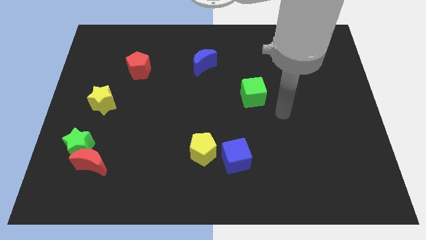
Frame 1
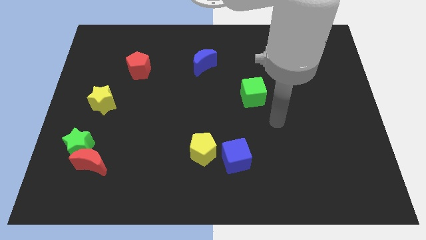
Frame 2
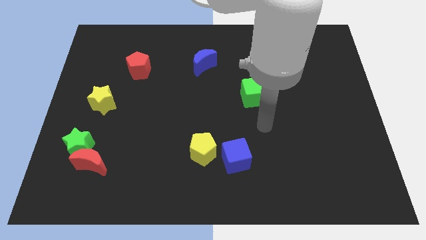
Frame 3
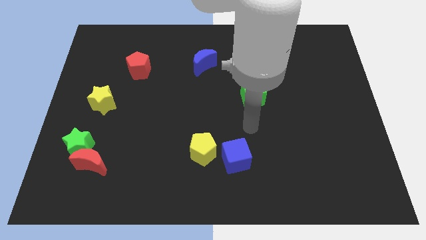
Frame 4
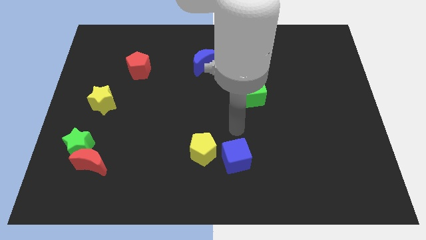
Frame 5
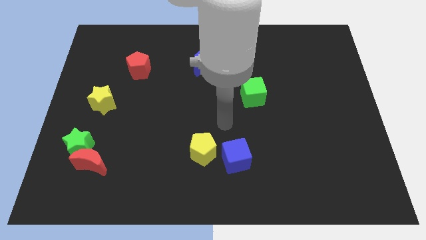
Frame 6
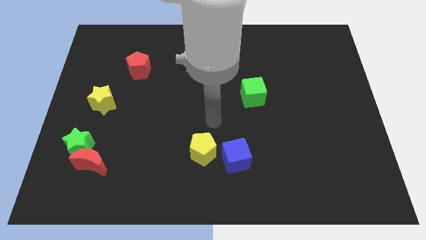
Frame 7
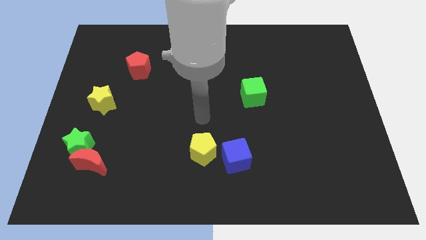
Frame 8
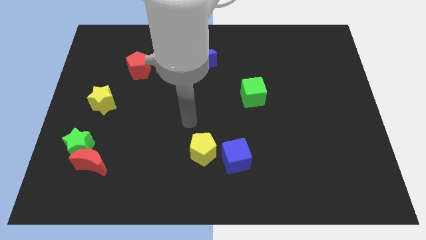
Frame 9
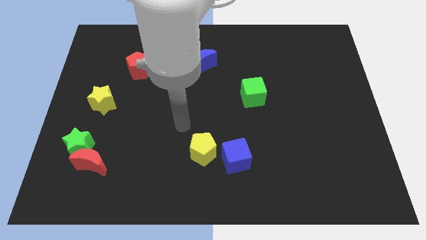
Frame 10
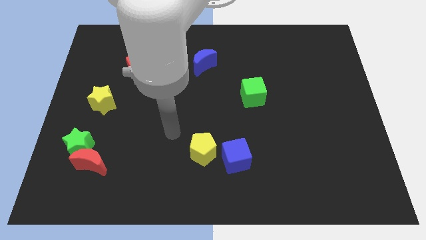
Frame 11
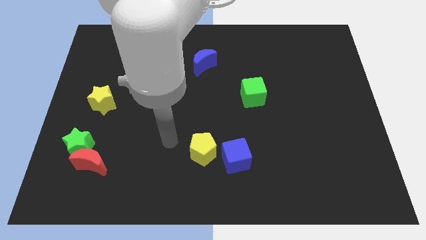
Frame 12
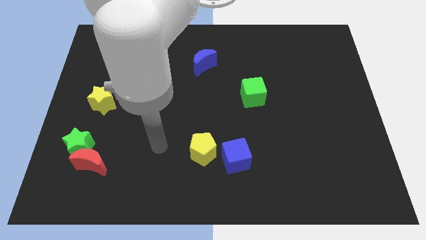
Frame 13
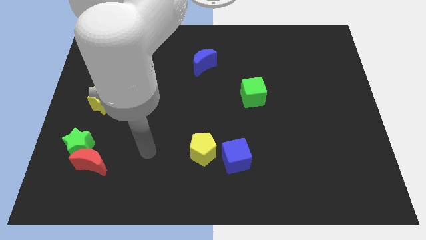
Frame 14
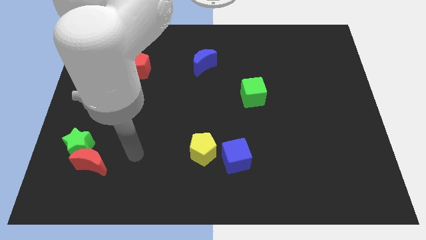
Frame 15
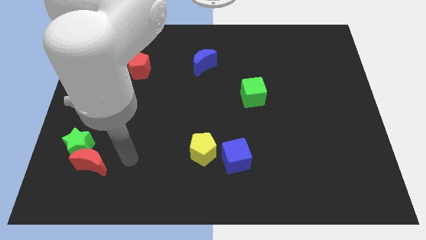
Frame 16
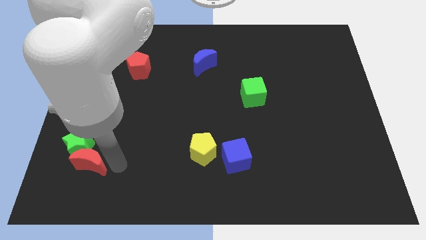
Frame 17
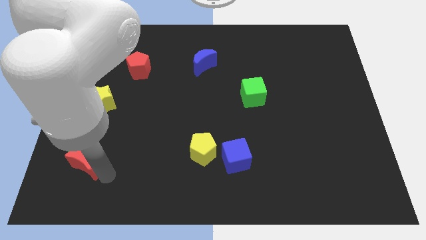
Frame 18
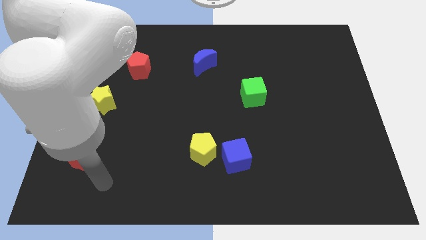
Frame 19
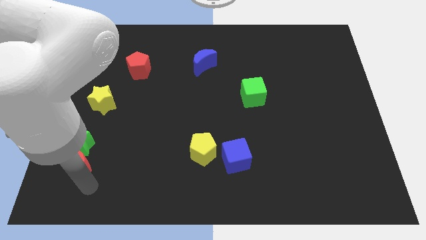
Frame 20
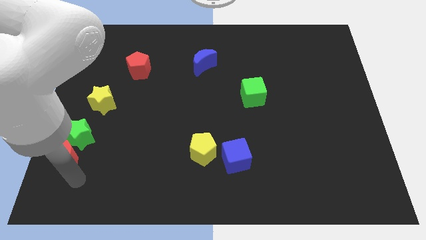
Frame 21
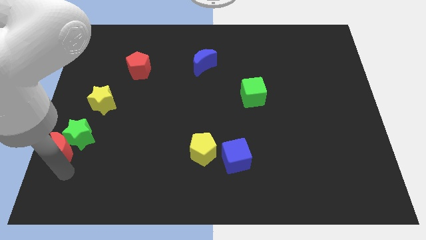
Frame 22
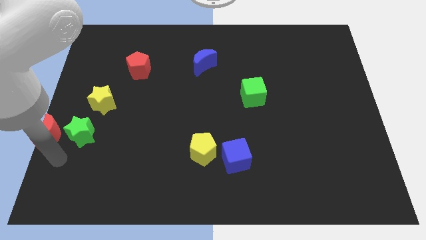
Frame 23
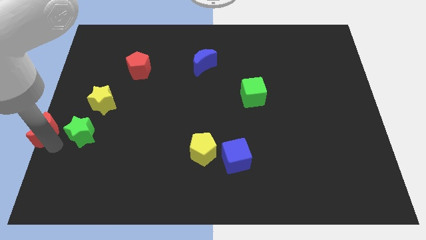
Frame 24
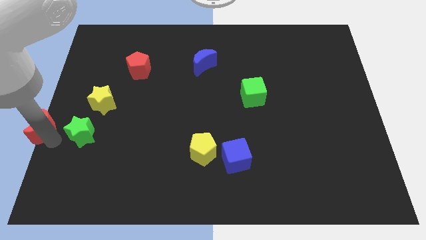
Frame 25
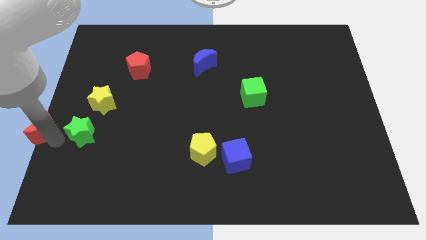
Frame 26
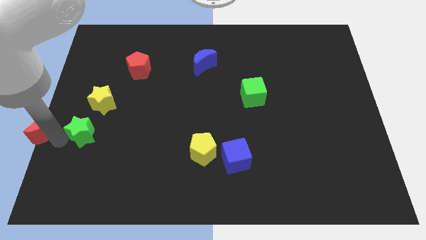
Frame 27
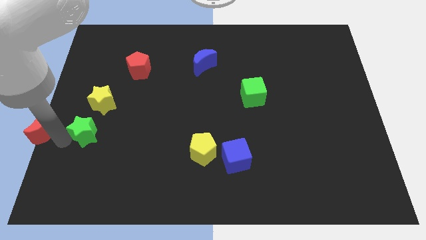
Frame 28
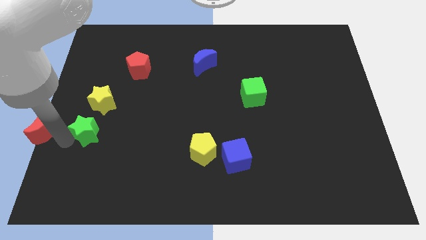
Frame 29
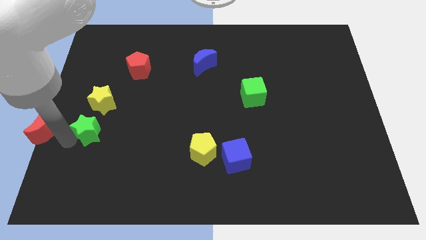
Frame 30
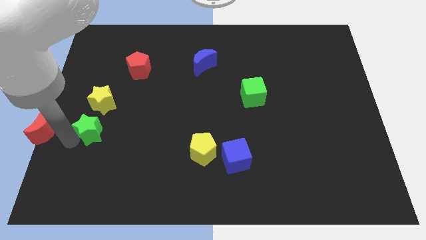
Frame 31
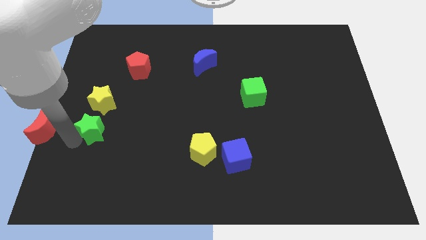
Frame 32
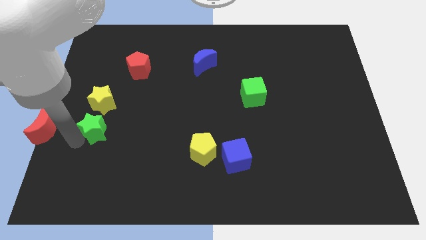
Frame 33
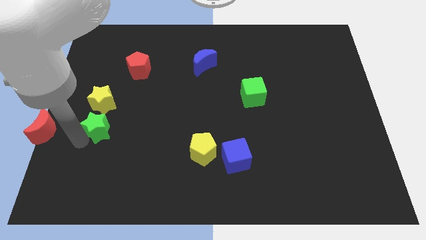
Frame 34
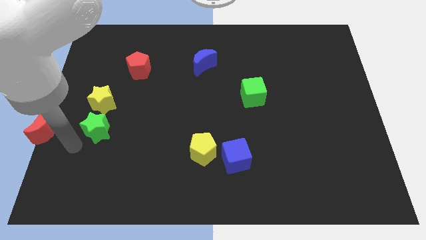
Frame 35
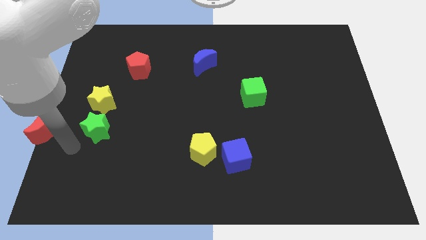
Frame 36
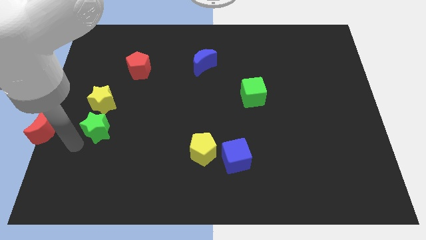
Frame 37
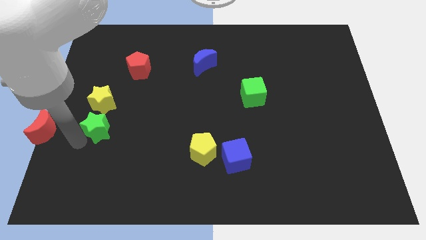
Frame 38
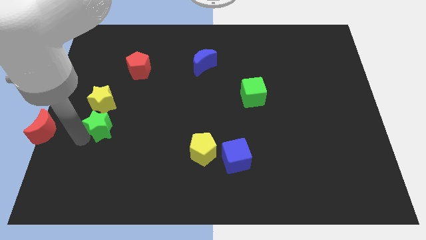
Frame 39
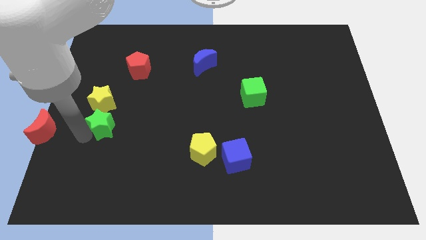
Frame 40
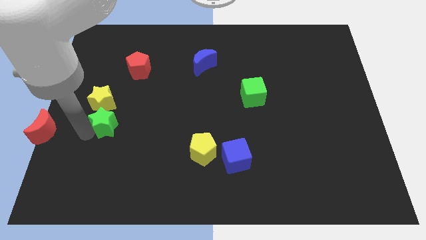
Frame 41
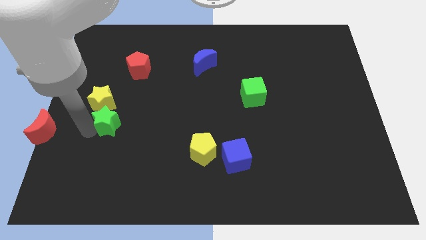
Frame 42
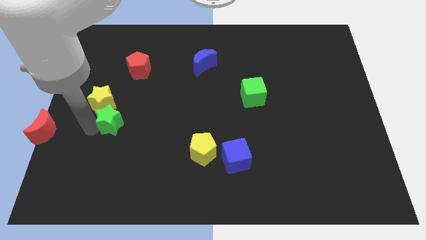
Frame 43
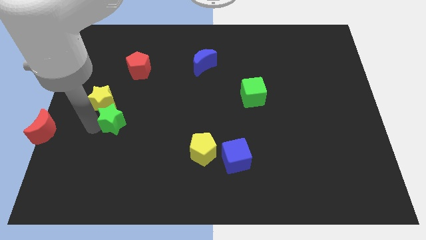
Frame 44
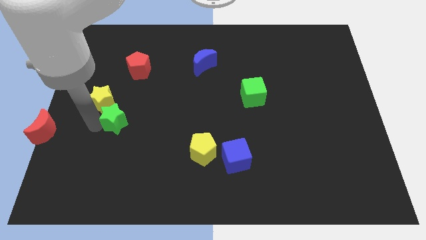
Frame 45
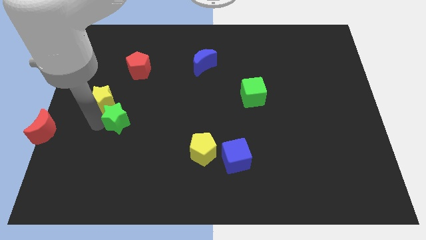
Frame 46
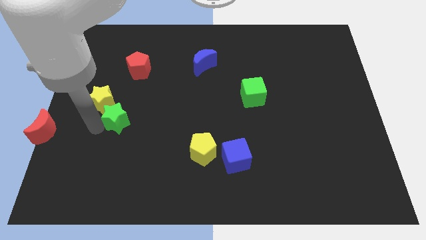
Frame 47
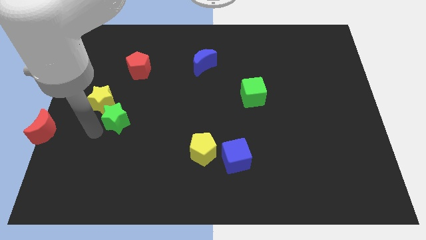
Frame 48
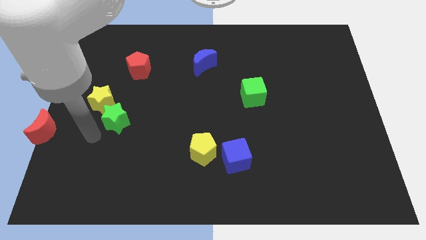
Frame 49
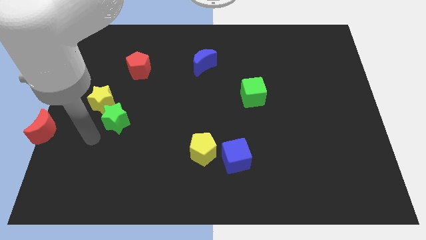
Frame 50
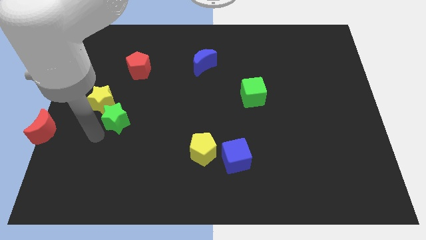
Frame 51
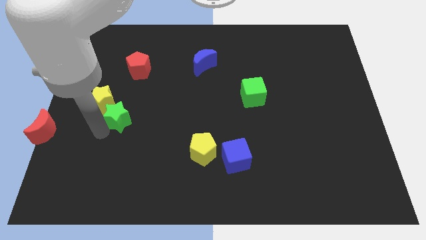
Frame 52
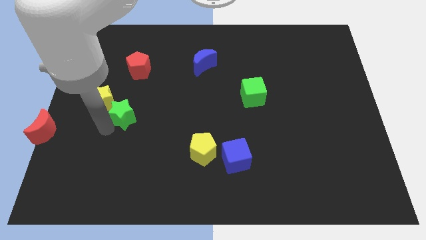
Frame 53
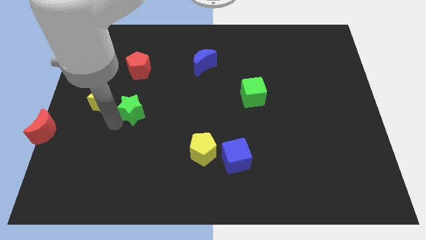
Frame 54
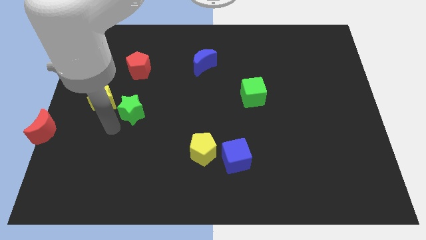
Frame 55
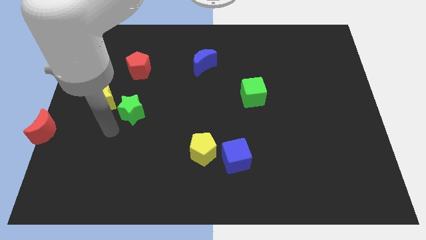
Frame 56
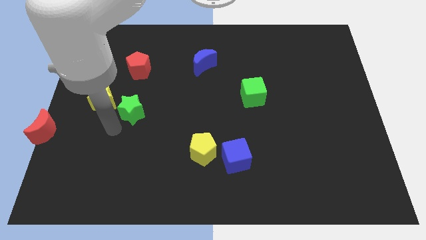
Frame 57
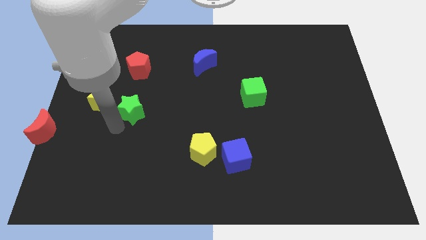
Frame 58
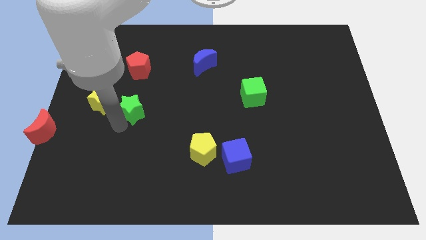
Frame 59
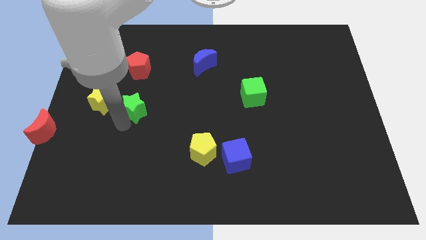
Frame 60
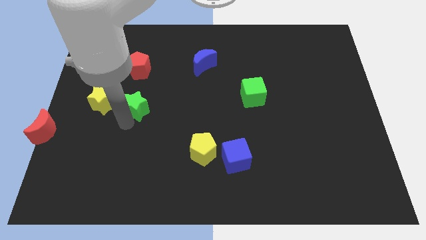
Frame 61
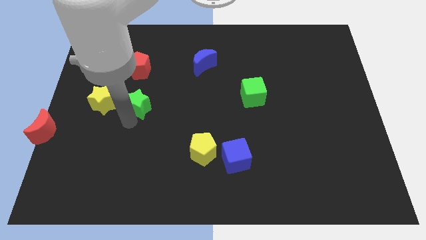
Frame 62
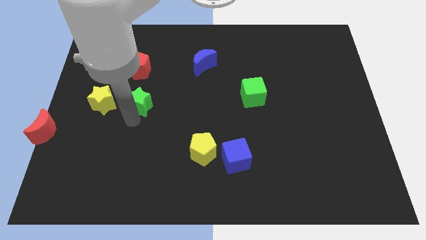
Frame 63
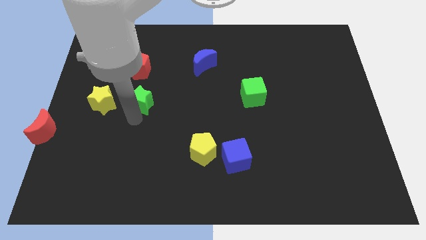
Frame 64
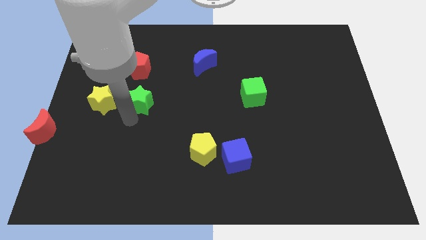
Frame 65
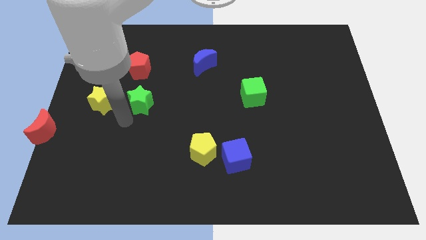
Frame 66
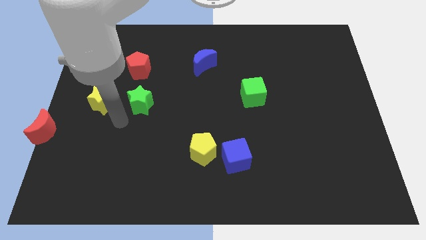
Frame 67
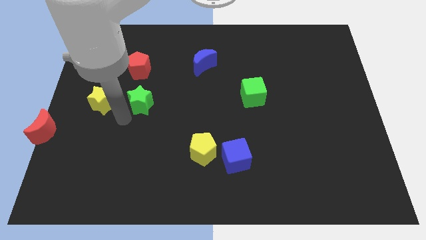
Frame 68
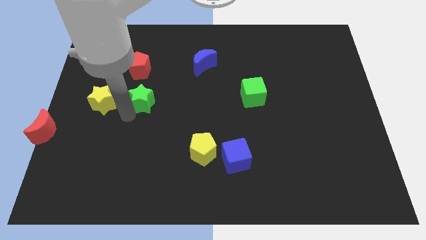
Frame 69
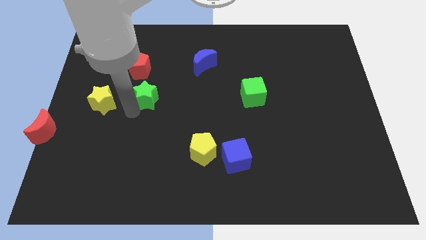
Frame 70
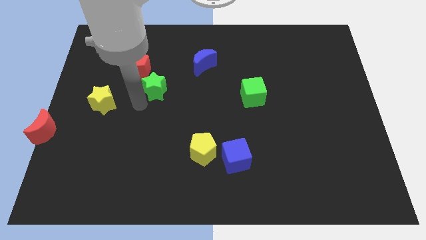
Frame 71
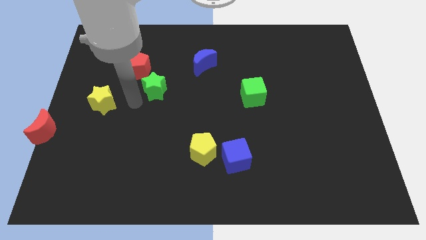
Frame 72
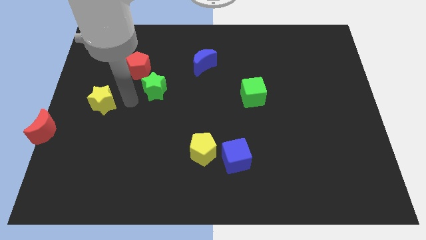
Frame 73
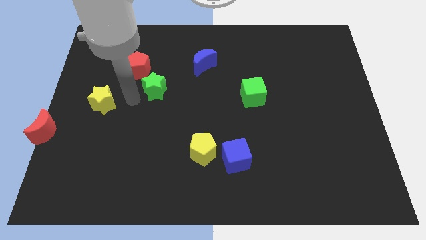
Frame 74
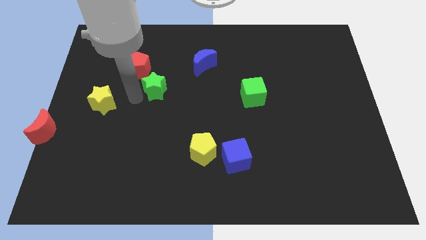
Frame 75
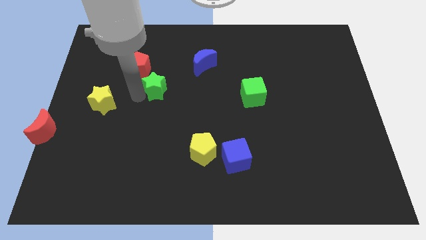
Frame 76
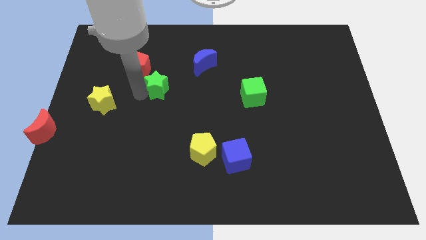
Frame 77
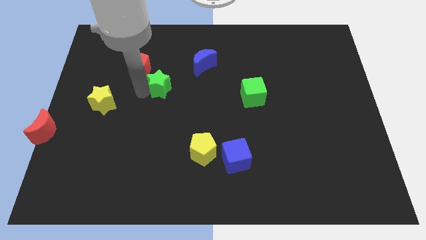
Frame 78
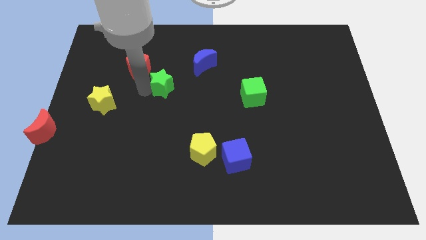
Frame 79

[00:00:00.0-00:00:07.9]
put the green star to the bottom left of the blue moon
